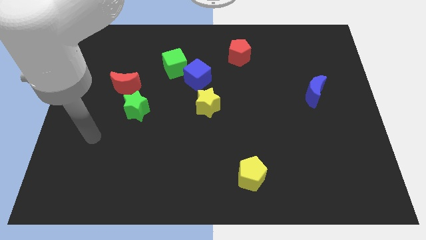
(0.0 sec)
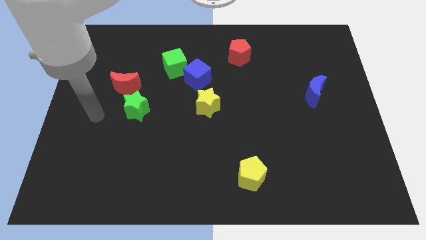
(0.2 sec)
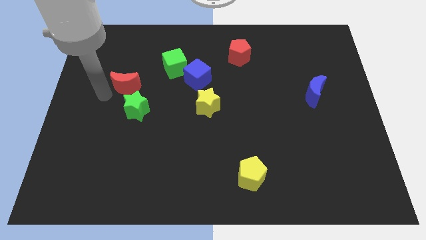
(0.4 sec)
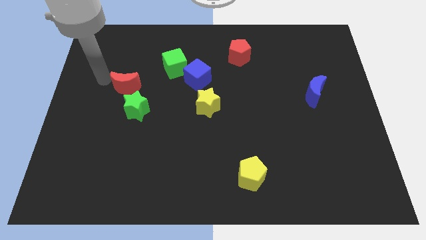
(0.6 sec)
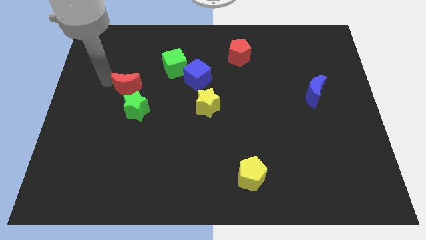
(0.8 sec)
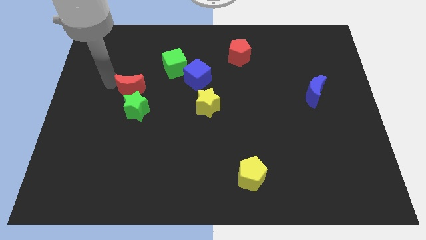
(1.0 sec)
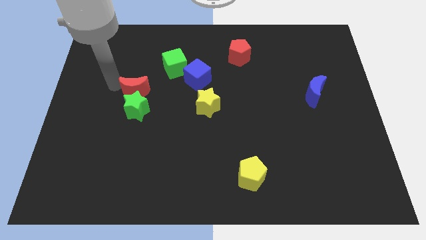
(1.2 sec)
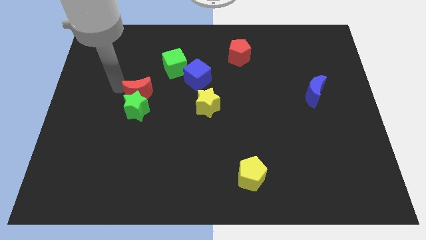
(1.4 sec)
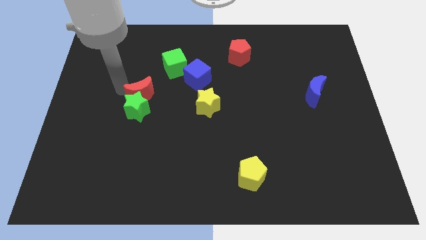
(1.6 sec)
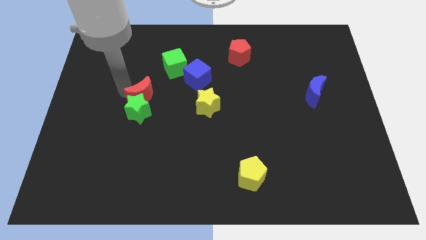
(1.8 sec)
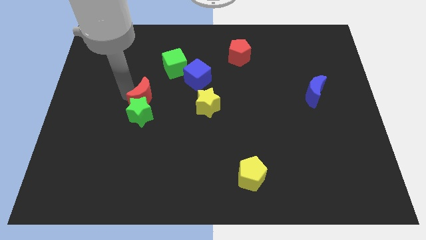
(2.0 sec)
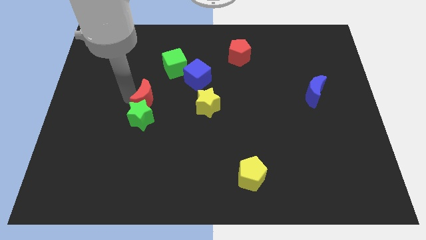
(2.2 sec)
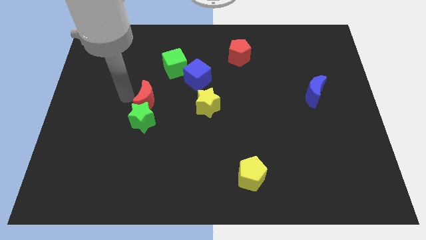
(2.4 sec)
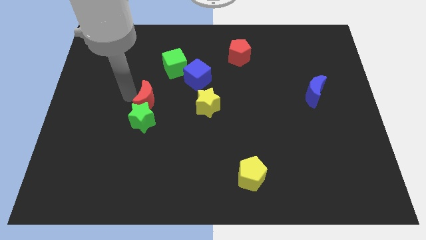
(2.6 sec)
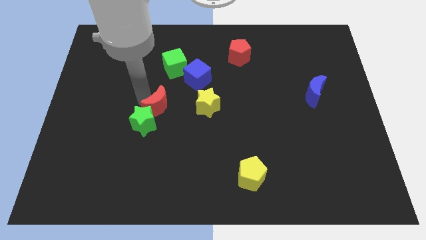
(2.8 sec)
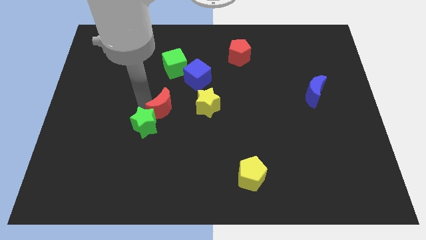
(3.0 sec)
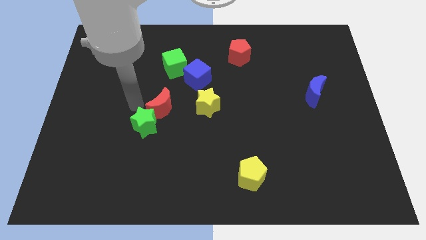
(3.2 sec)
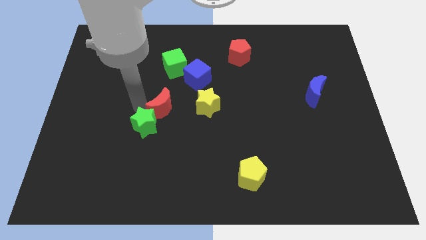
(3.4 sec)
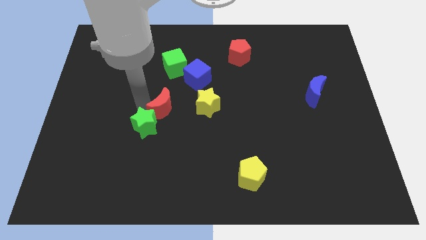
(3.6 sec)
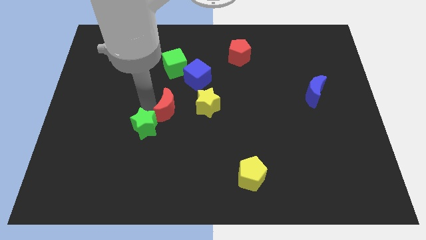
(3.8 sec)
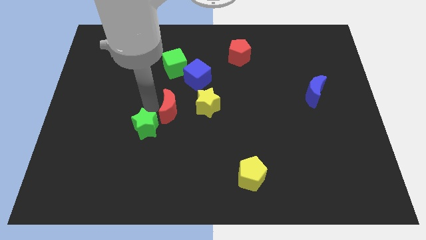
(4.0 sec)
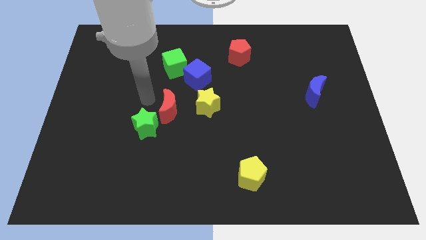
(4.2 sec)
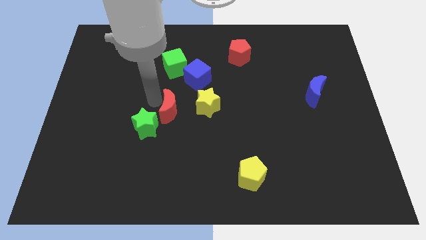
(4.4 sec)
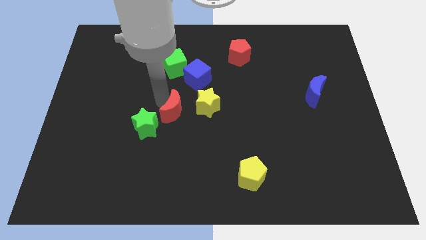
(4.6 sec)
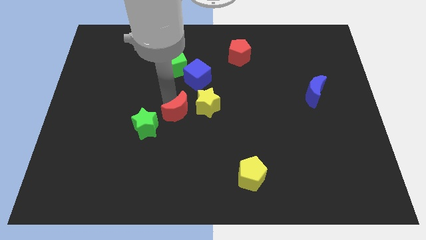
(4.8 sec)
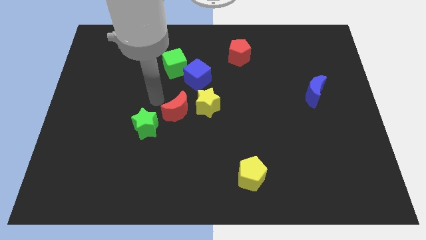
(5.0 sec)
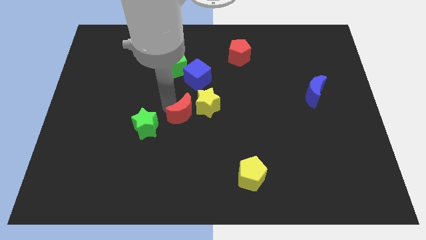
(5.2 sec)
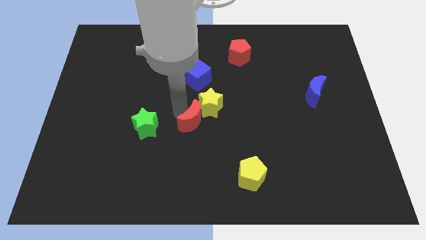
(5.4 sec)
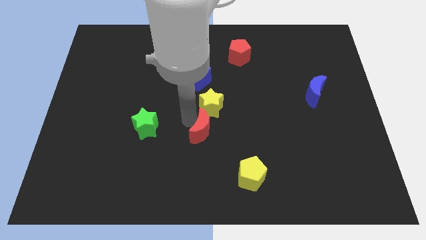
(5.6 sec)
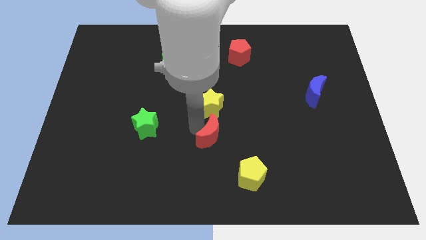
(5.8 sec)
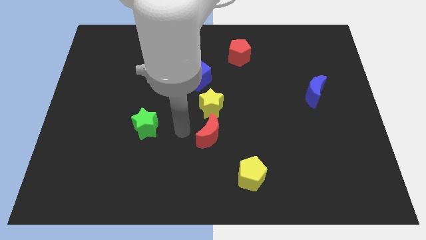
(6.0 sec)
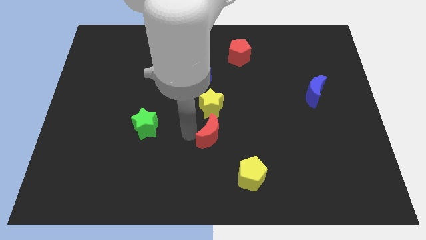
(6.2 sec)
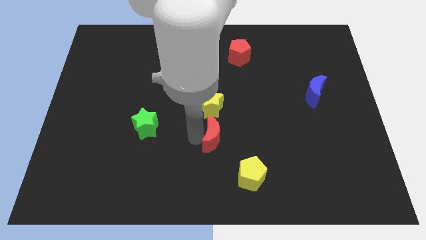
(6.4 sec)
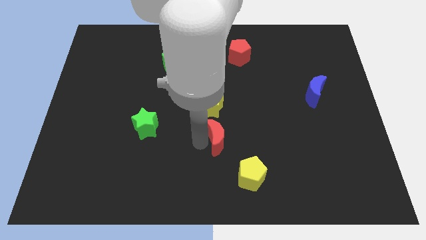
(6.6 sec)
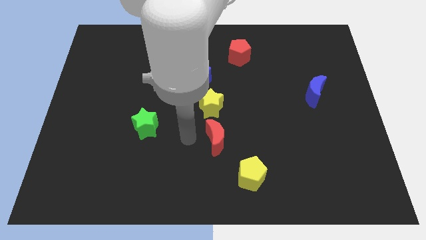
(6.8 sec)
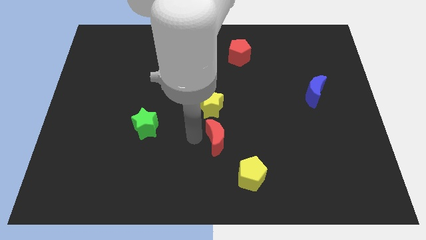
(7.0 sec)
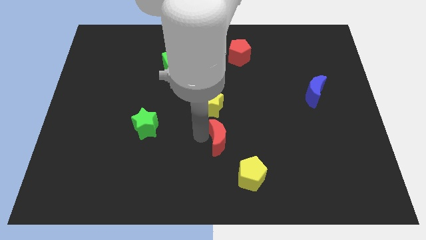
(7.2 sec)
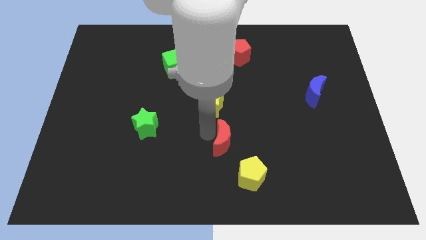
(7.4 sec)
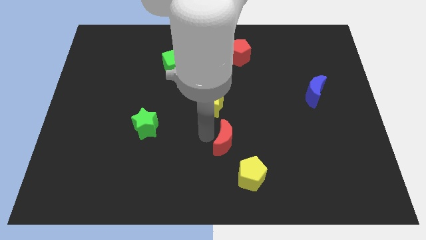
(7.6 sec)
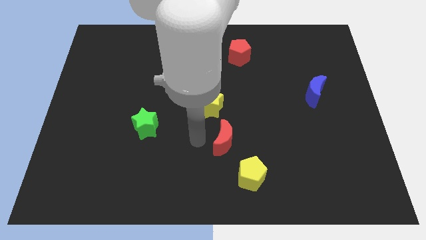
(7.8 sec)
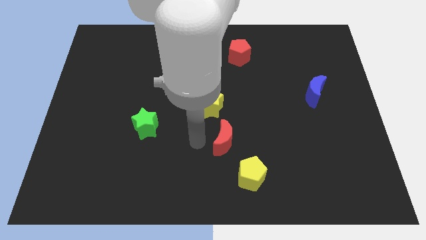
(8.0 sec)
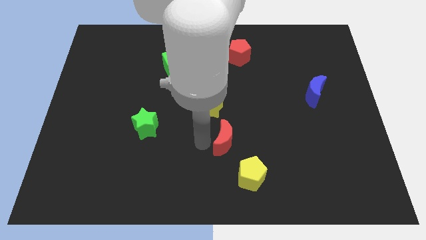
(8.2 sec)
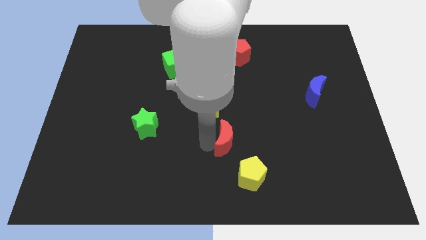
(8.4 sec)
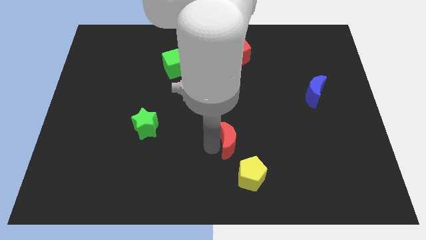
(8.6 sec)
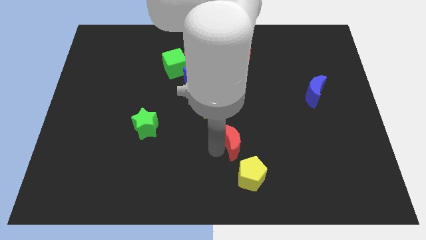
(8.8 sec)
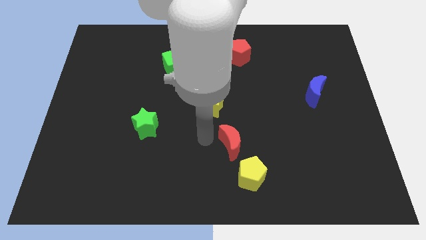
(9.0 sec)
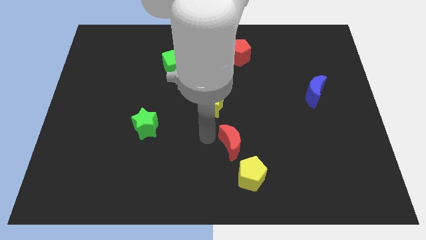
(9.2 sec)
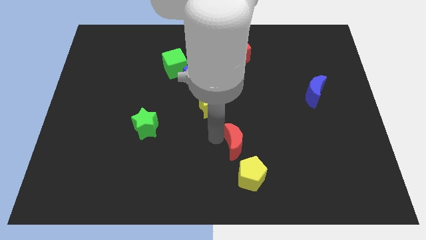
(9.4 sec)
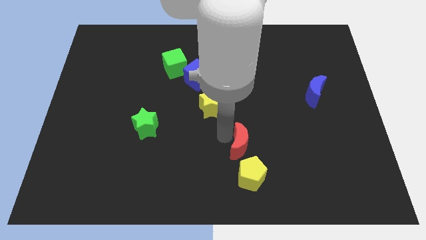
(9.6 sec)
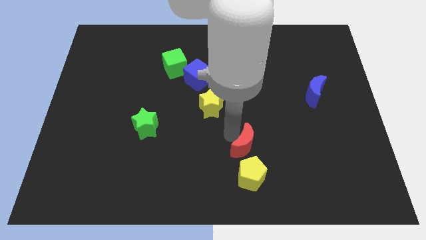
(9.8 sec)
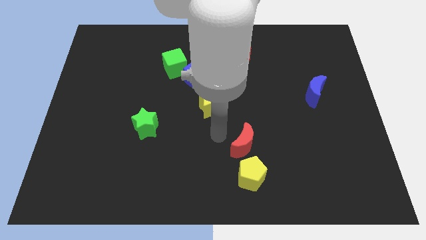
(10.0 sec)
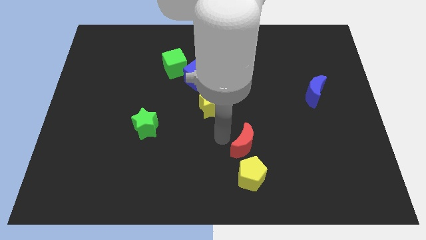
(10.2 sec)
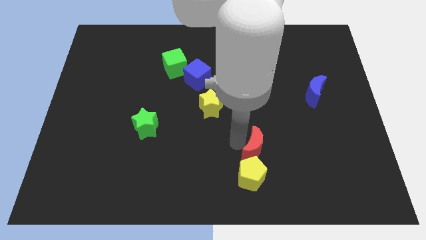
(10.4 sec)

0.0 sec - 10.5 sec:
slide the red moon diagonally up and to the right of the yellow pentagon

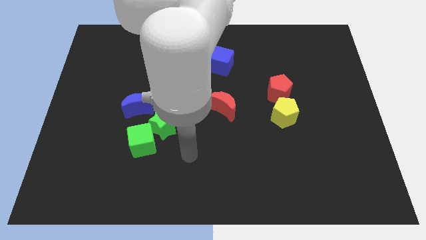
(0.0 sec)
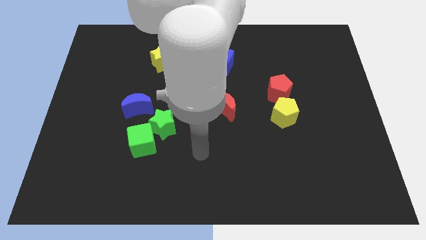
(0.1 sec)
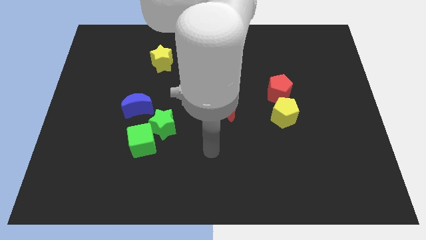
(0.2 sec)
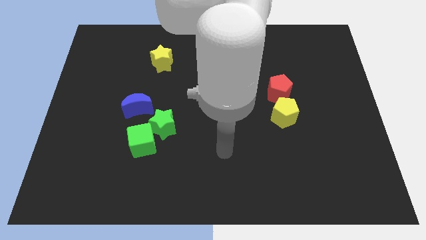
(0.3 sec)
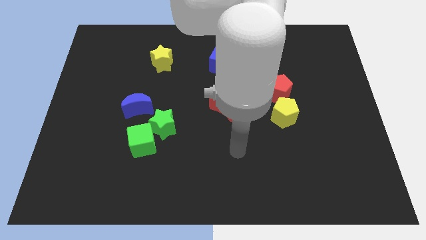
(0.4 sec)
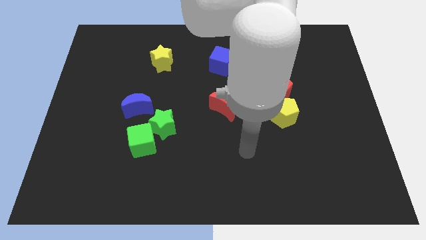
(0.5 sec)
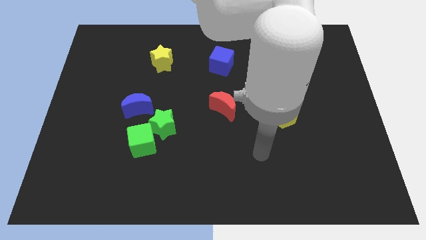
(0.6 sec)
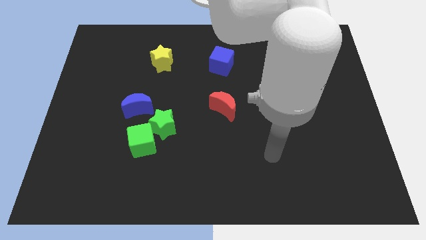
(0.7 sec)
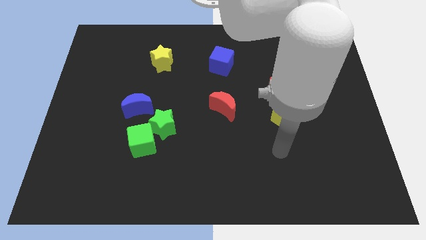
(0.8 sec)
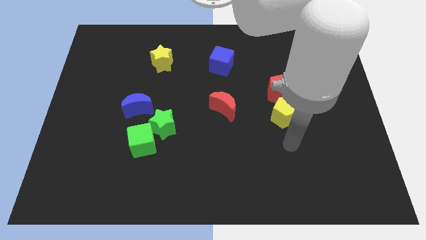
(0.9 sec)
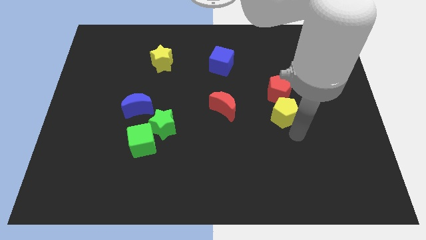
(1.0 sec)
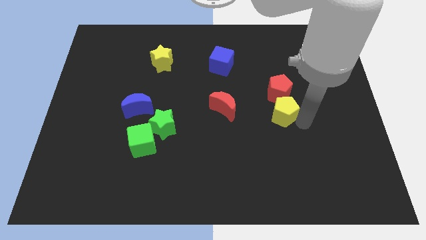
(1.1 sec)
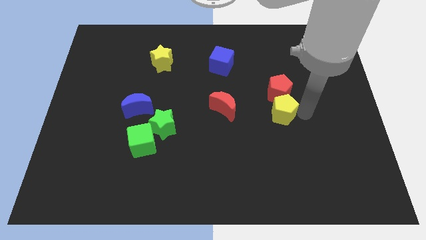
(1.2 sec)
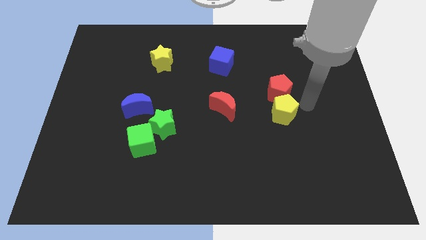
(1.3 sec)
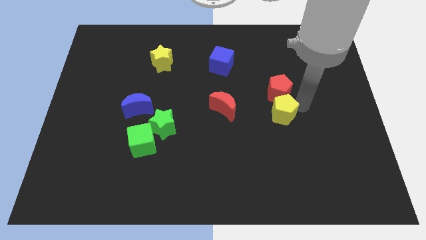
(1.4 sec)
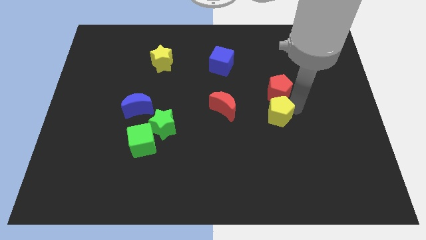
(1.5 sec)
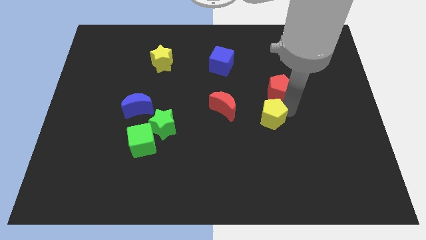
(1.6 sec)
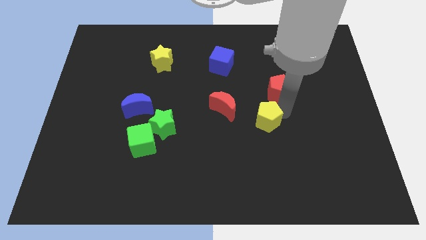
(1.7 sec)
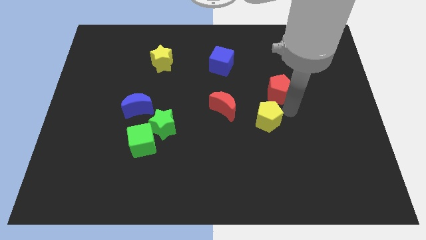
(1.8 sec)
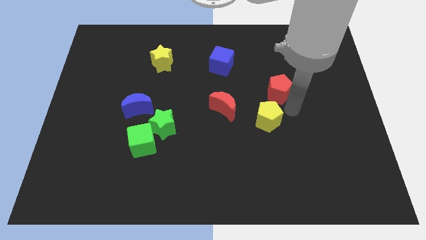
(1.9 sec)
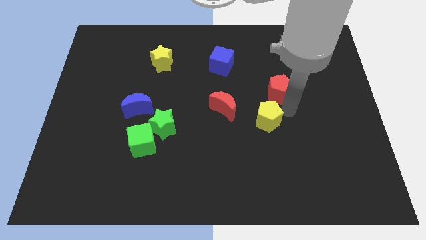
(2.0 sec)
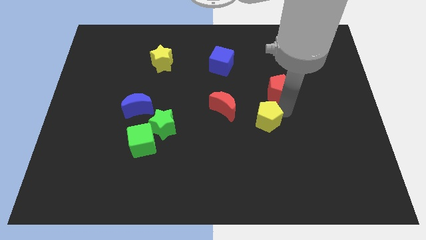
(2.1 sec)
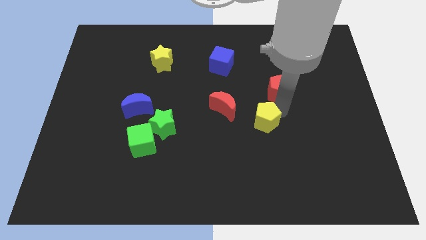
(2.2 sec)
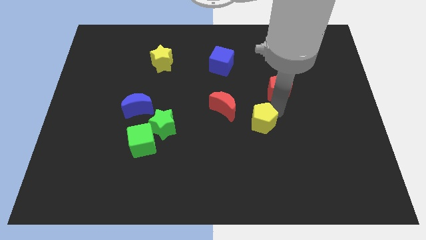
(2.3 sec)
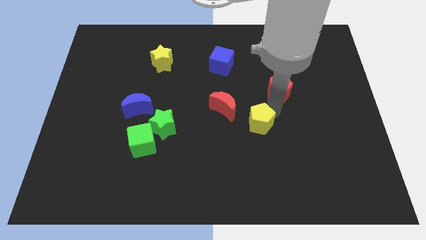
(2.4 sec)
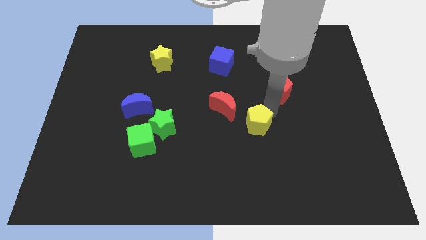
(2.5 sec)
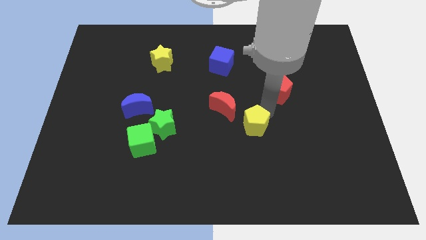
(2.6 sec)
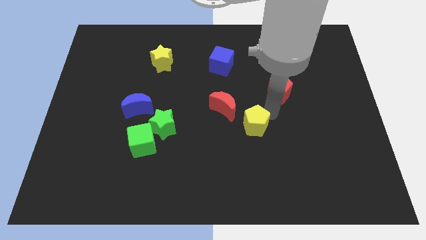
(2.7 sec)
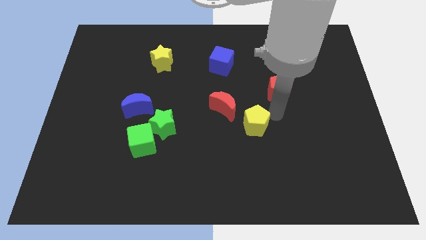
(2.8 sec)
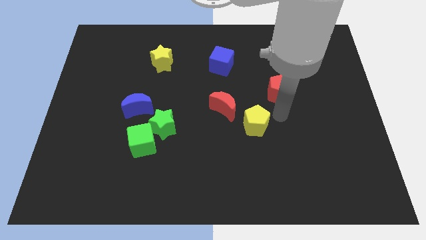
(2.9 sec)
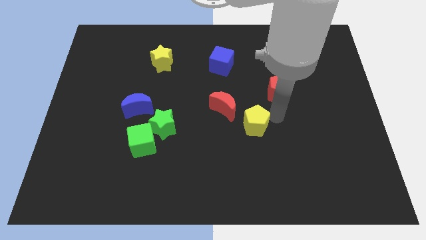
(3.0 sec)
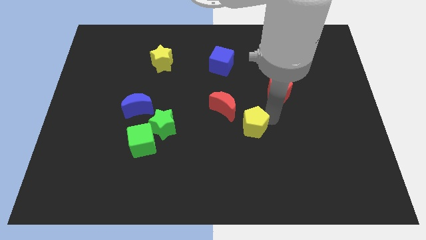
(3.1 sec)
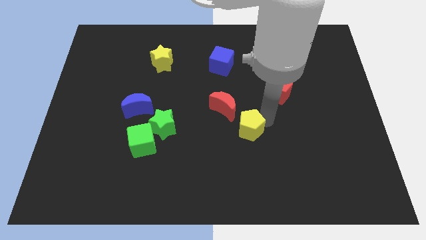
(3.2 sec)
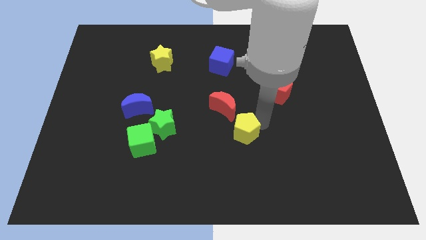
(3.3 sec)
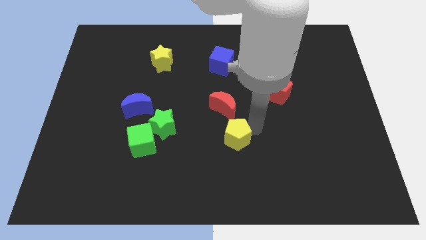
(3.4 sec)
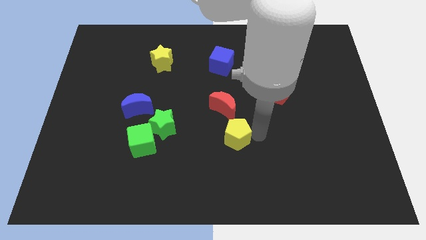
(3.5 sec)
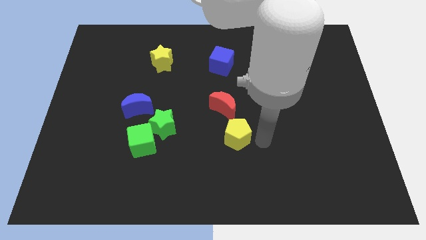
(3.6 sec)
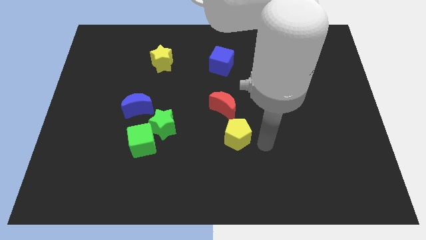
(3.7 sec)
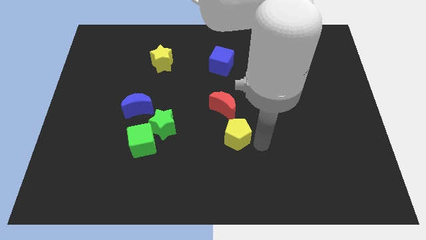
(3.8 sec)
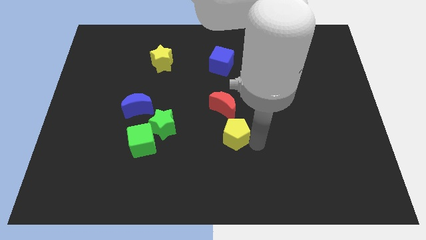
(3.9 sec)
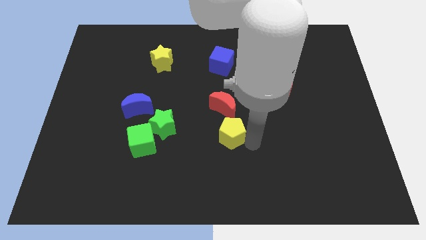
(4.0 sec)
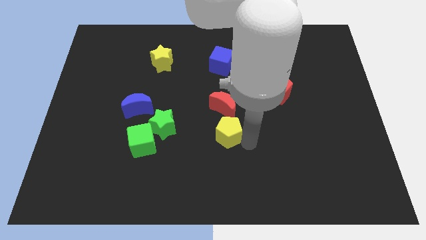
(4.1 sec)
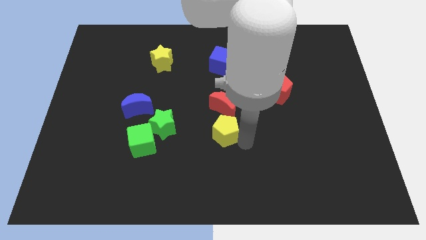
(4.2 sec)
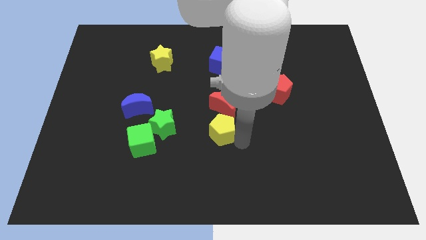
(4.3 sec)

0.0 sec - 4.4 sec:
move the yellow pentagon diagonally down and to the left of the red moon
